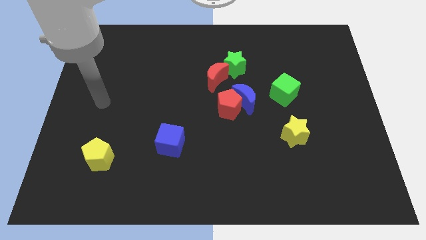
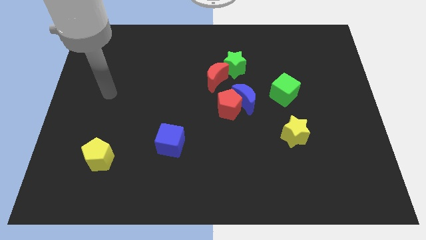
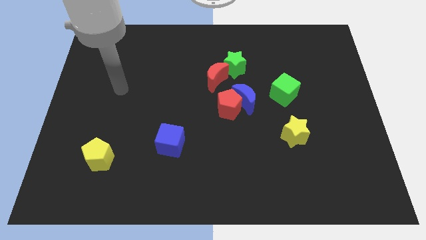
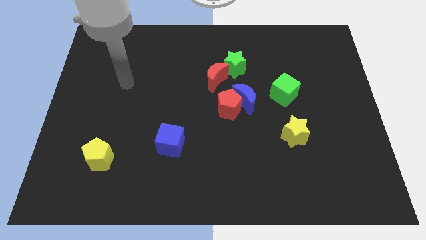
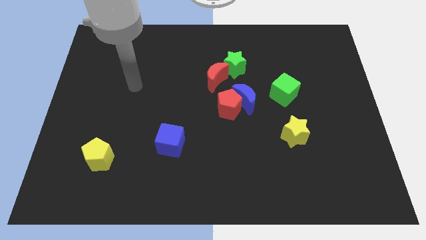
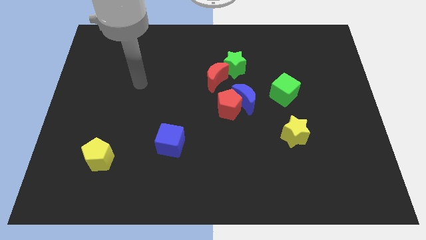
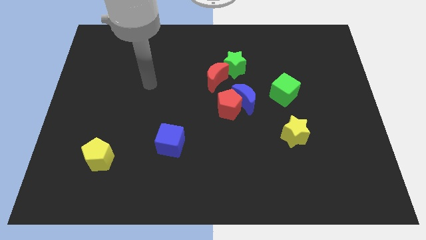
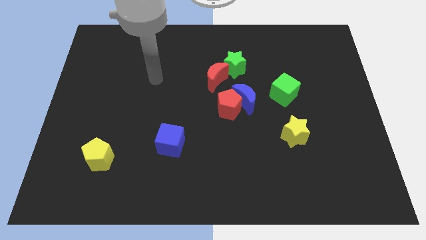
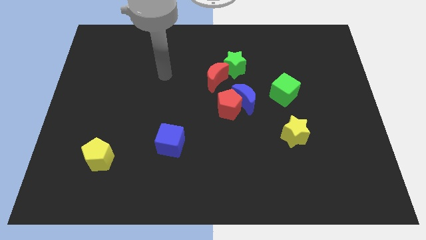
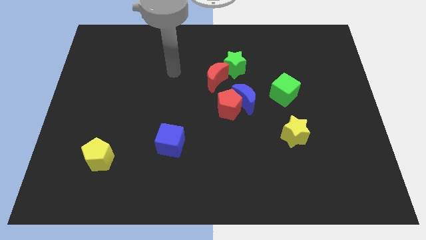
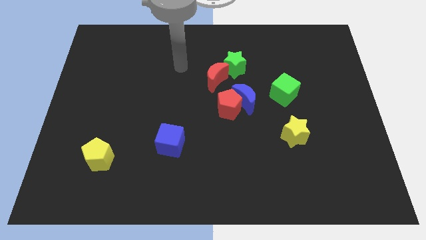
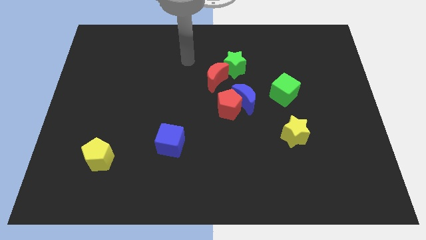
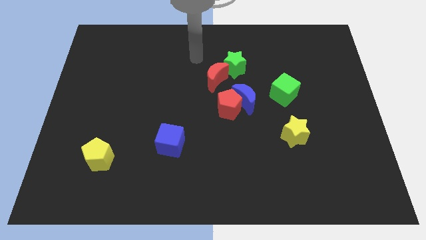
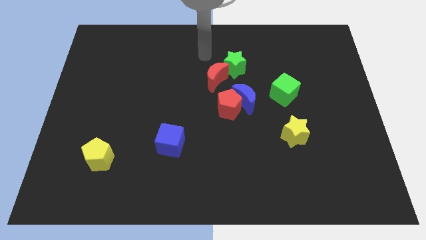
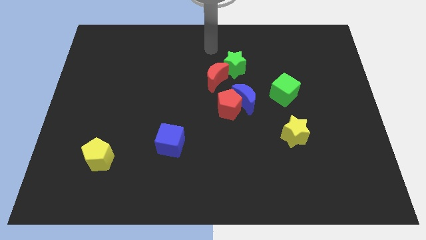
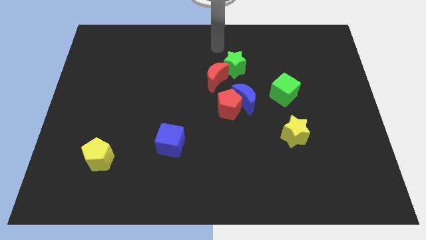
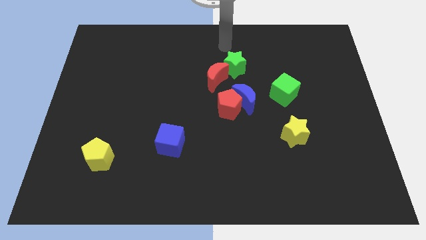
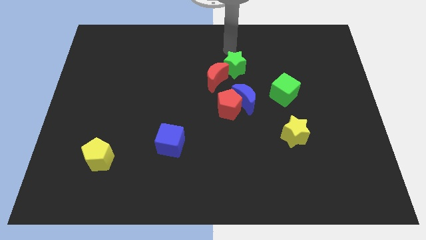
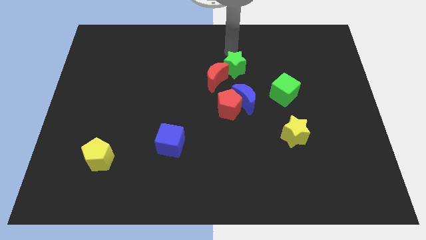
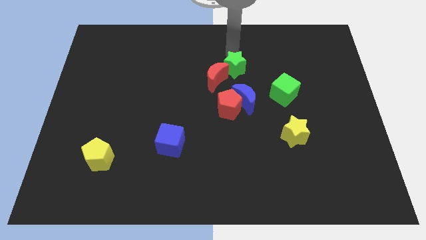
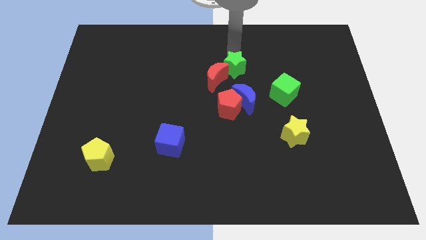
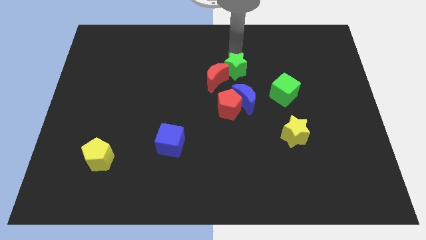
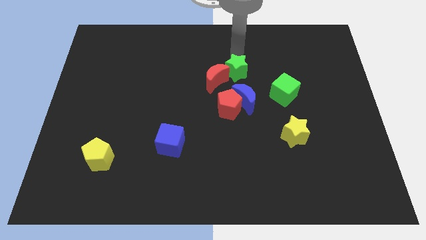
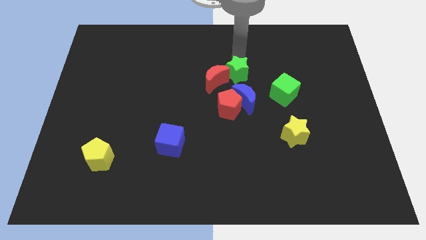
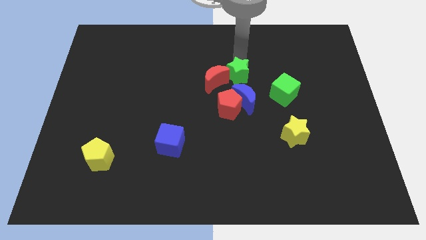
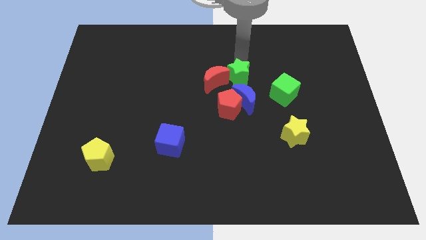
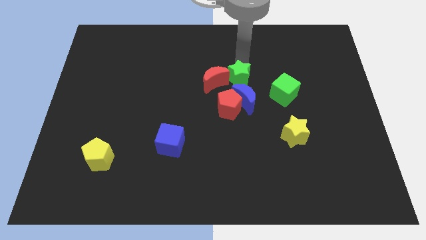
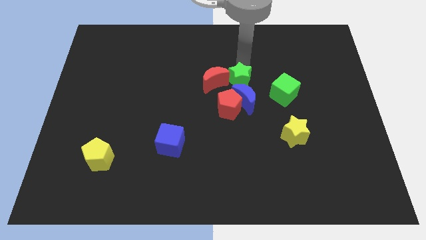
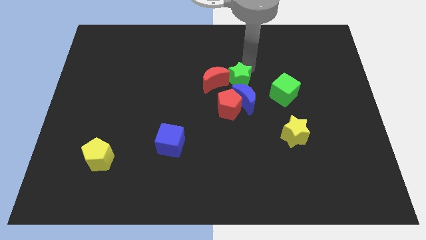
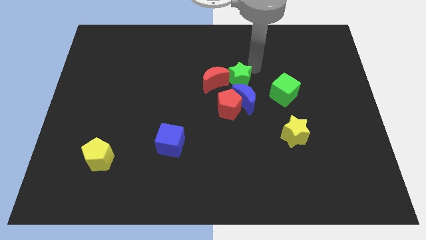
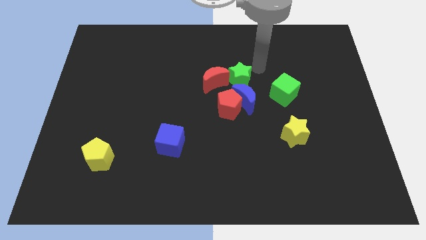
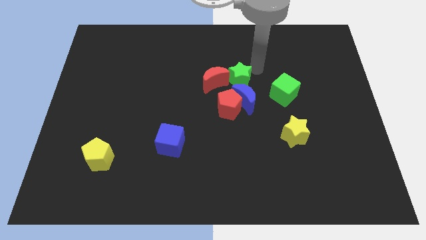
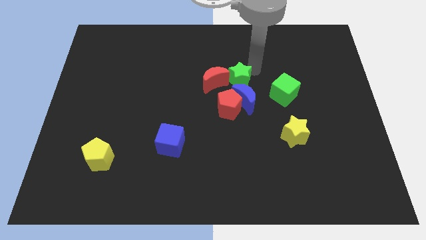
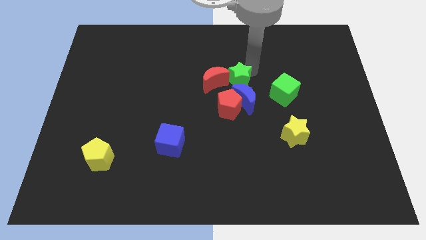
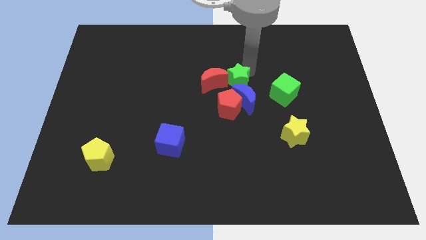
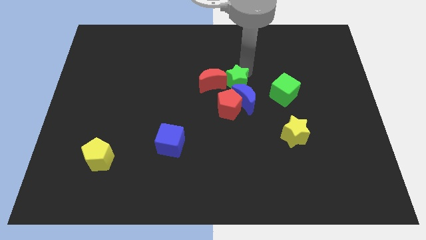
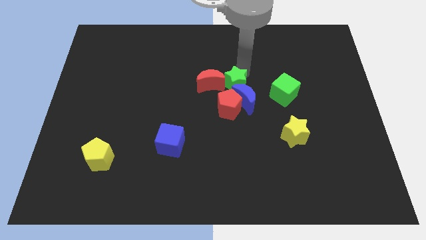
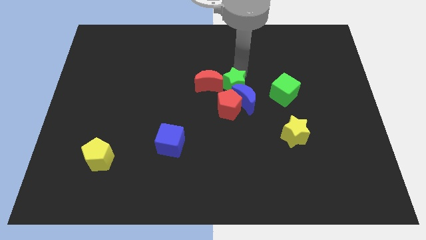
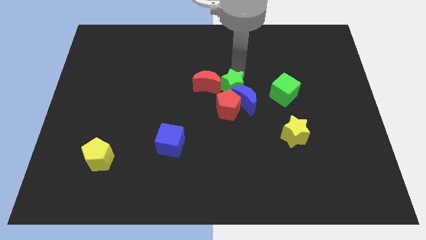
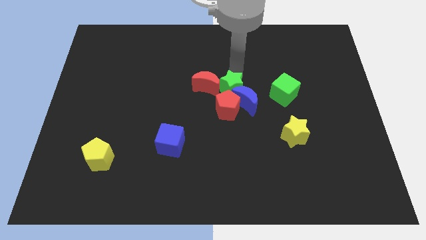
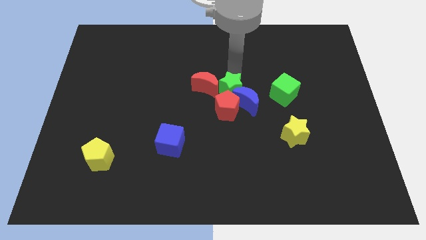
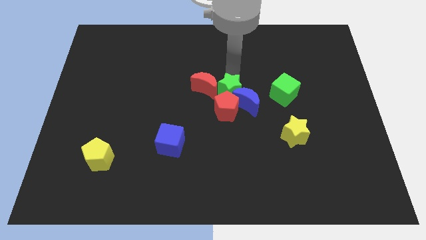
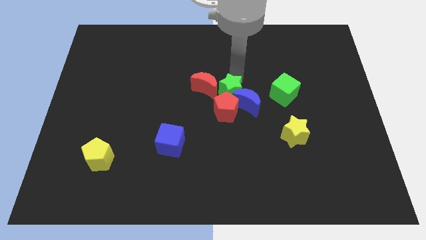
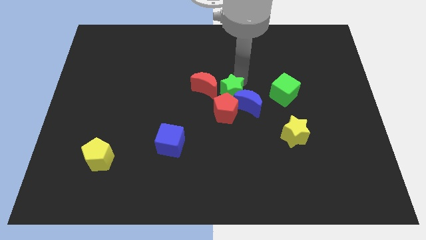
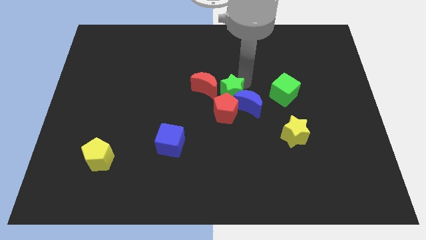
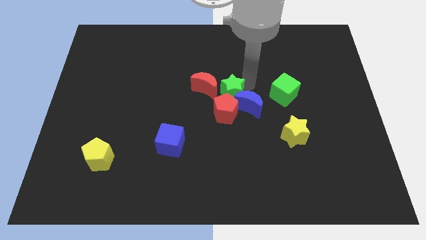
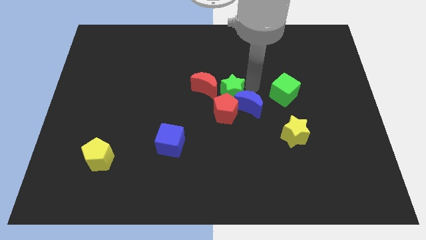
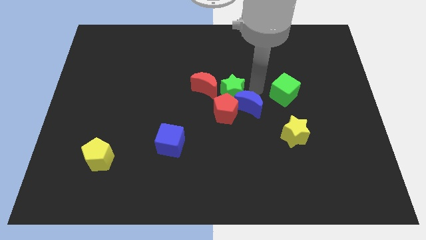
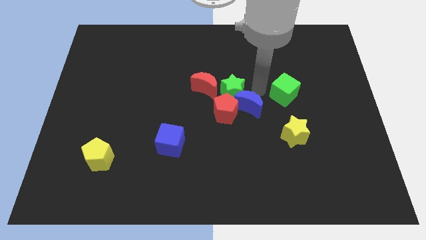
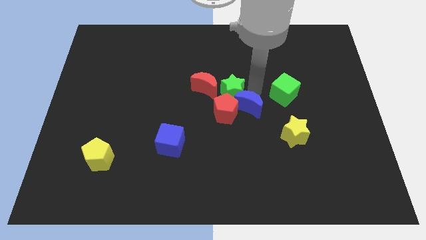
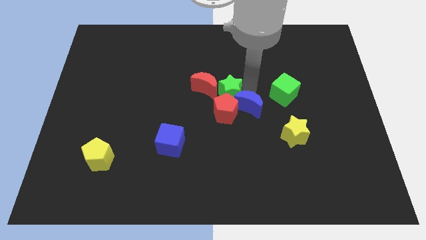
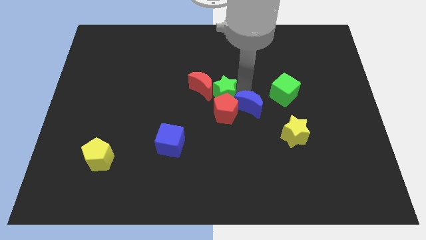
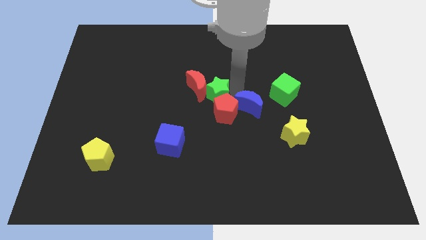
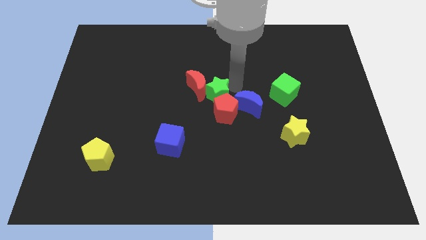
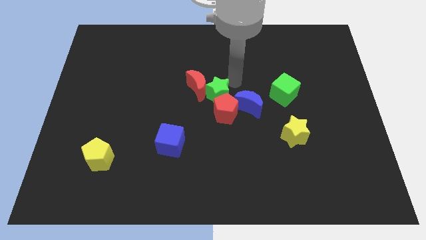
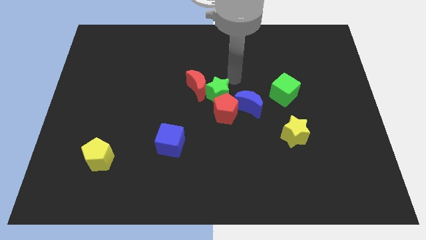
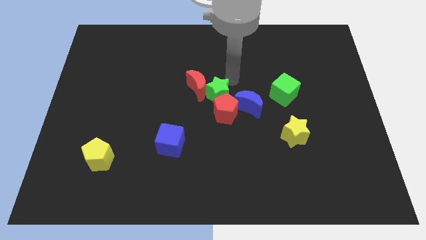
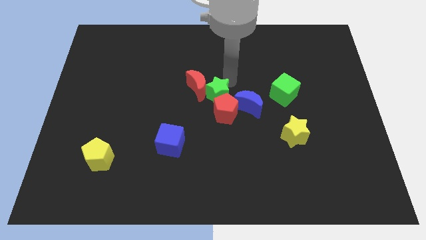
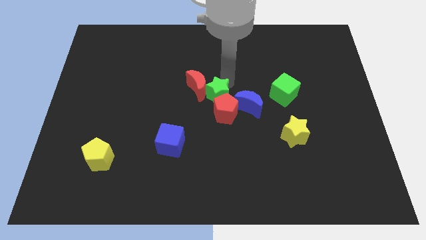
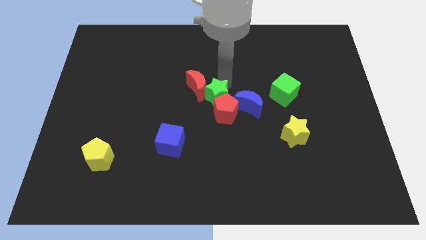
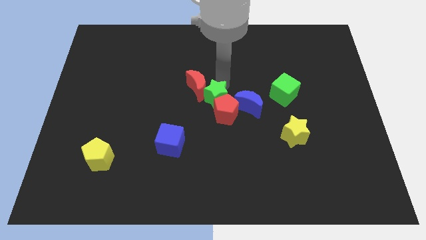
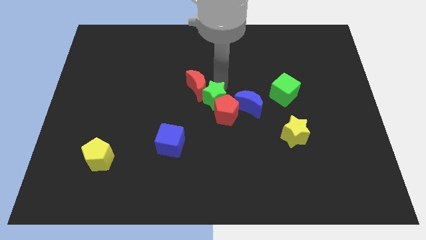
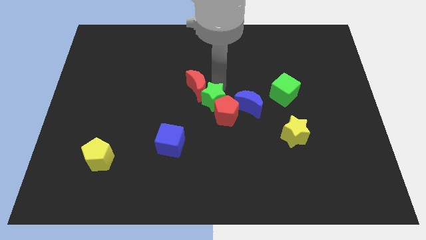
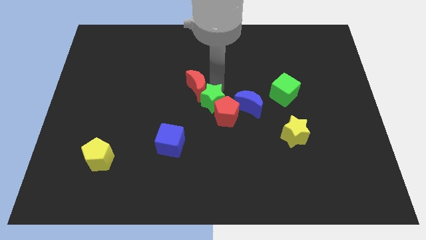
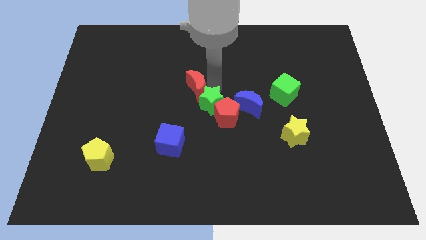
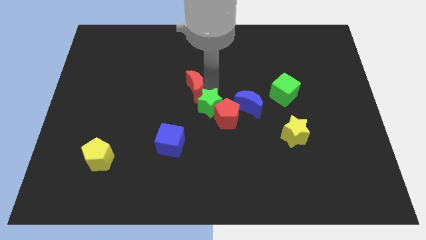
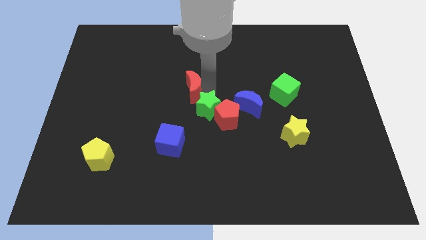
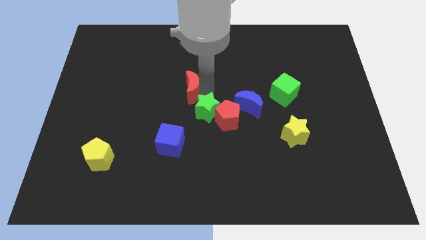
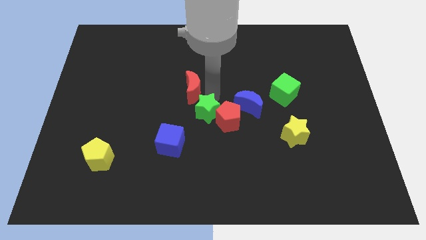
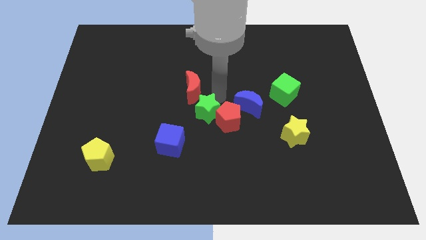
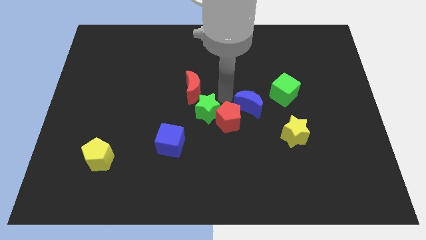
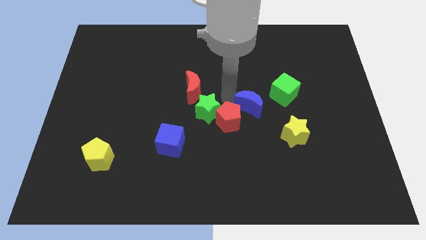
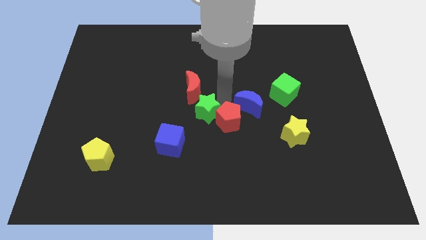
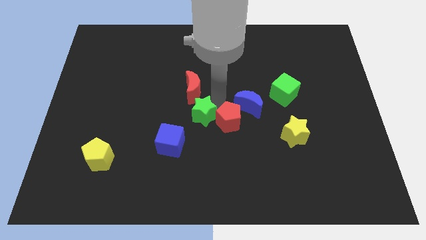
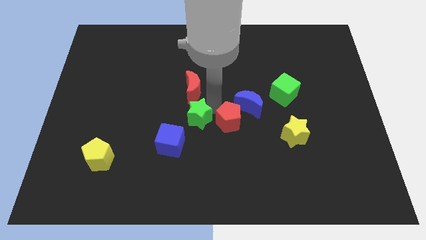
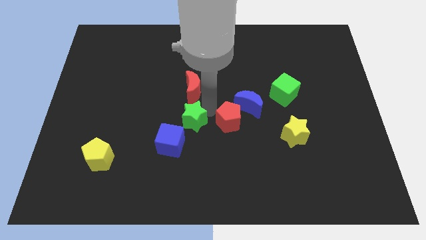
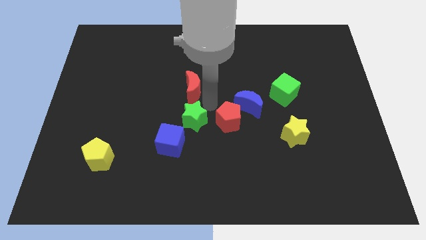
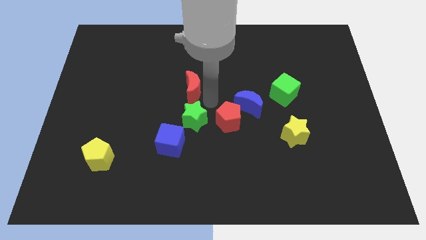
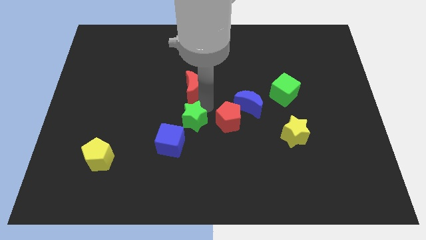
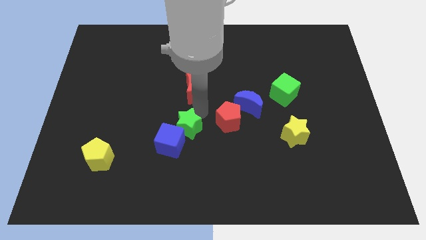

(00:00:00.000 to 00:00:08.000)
slide the green star towards the blue cube
